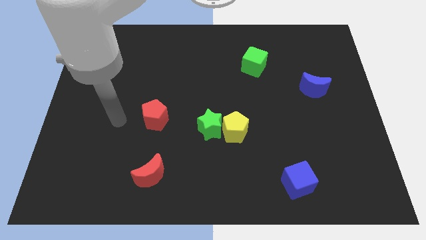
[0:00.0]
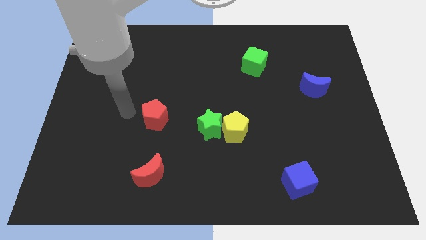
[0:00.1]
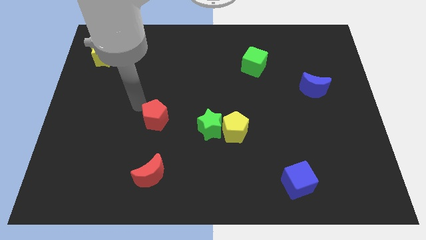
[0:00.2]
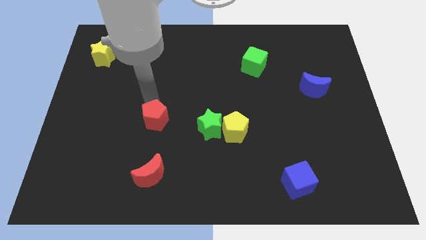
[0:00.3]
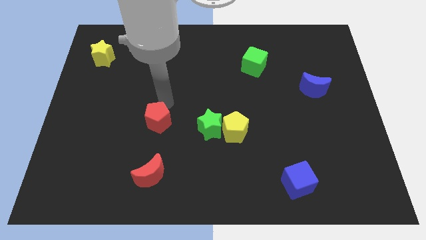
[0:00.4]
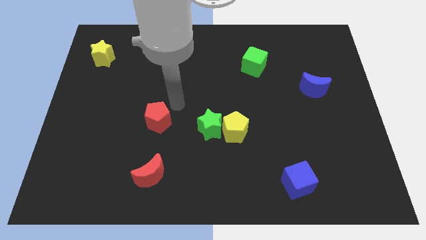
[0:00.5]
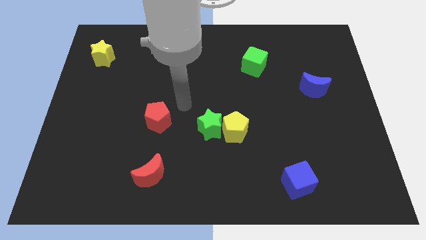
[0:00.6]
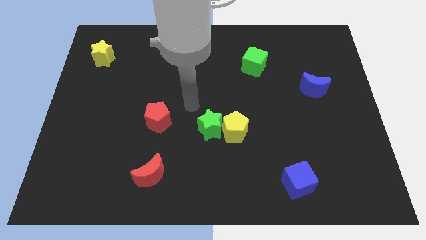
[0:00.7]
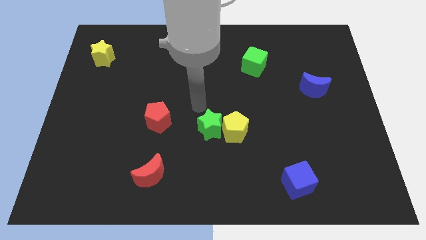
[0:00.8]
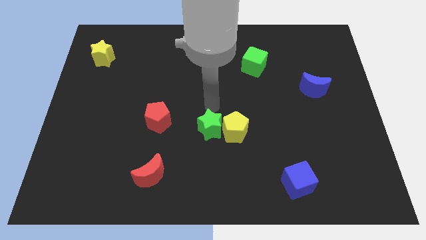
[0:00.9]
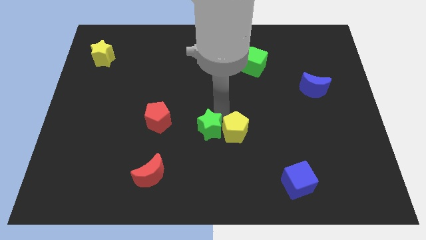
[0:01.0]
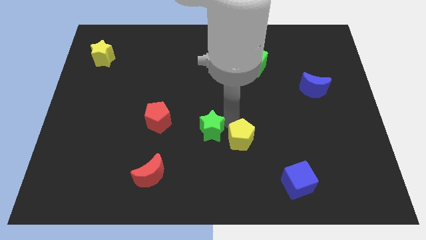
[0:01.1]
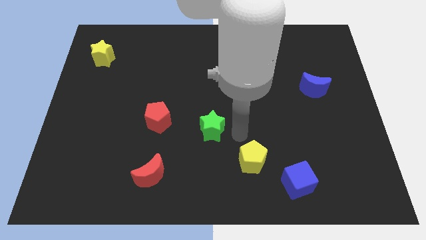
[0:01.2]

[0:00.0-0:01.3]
separate the green star from the yellow pentagon

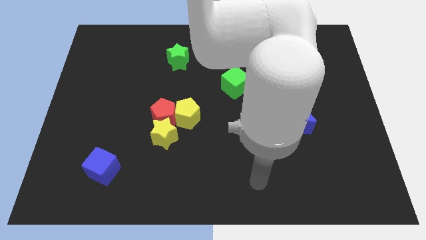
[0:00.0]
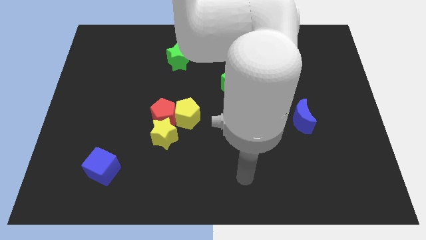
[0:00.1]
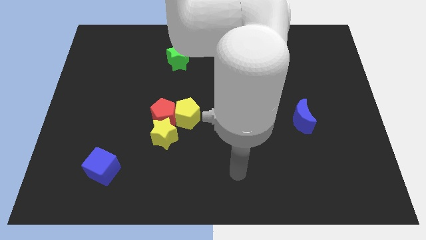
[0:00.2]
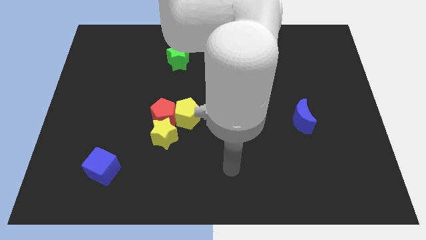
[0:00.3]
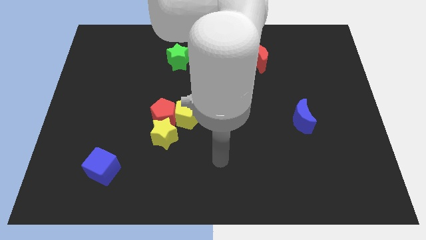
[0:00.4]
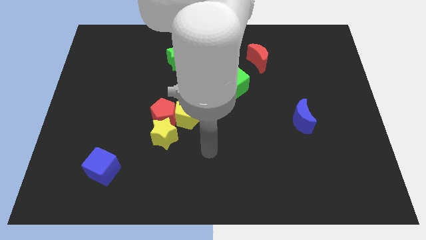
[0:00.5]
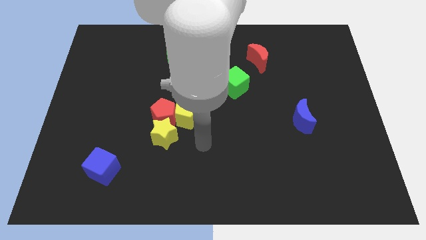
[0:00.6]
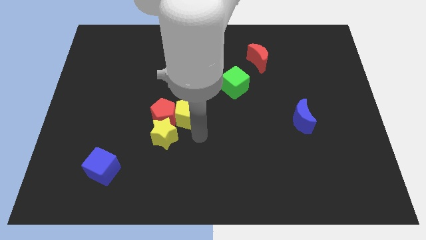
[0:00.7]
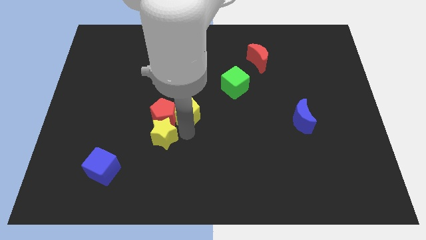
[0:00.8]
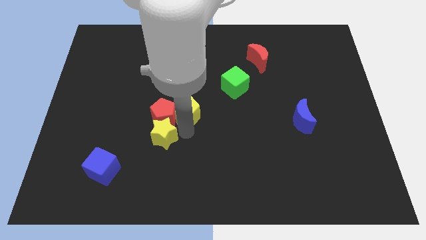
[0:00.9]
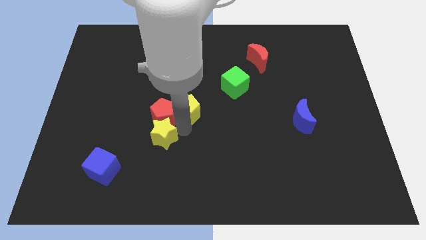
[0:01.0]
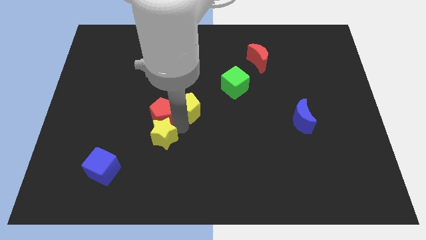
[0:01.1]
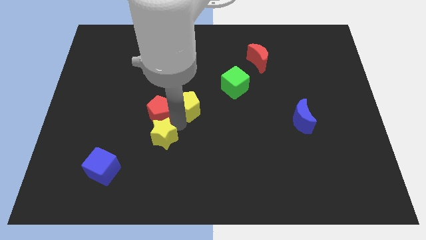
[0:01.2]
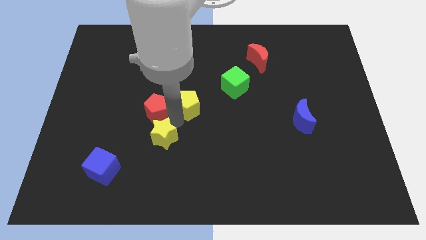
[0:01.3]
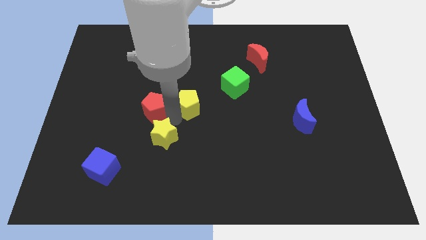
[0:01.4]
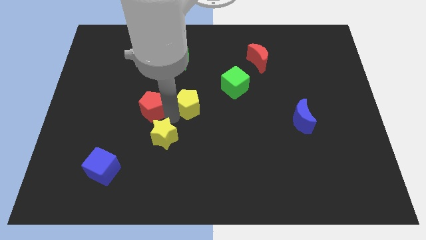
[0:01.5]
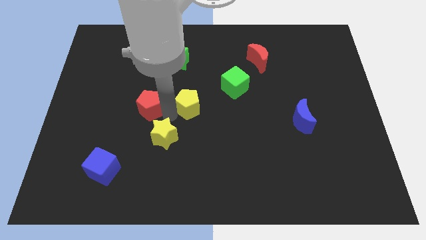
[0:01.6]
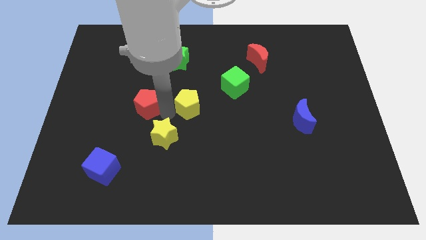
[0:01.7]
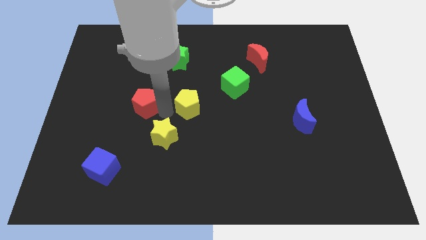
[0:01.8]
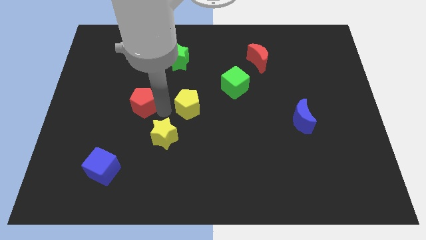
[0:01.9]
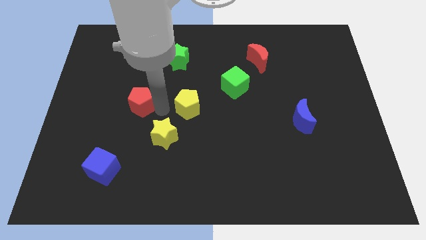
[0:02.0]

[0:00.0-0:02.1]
separate the red pentagon from the yellow star and yellow pentagon

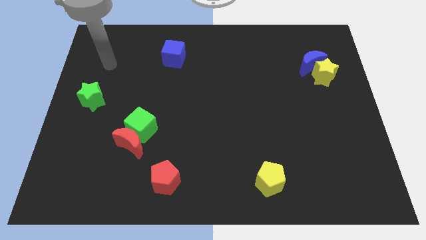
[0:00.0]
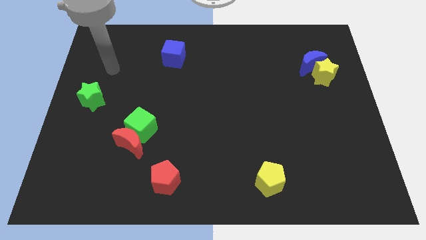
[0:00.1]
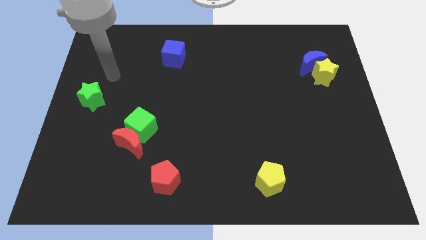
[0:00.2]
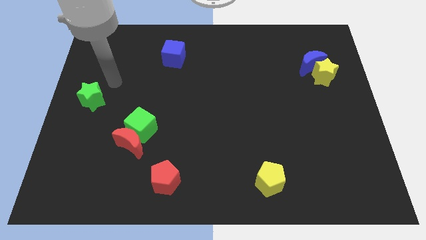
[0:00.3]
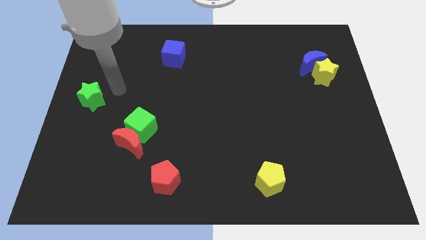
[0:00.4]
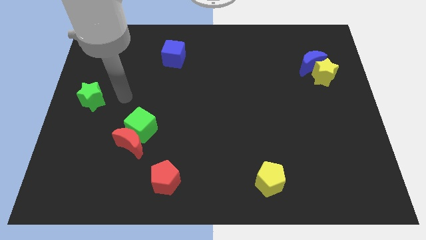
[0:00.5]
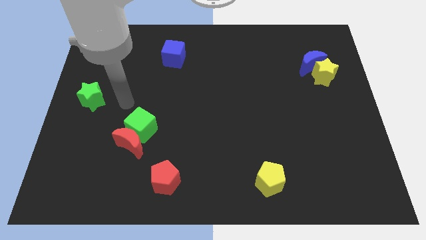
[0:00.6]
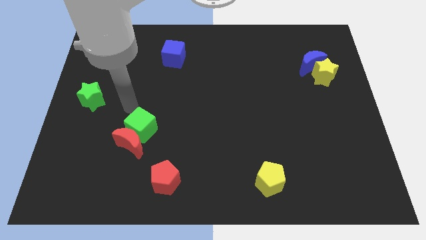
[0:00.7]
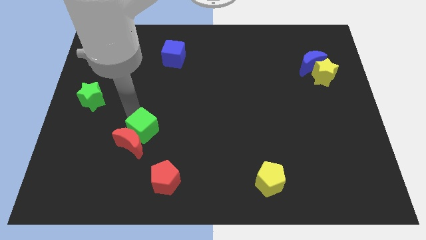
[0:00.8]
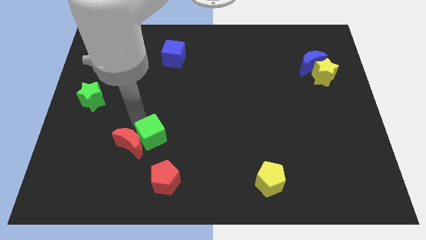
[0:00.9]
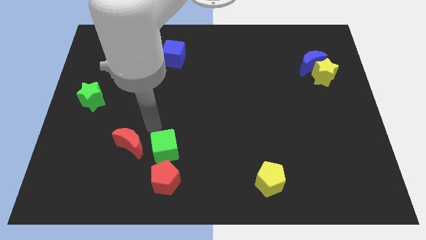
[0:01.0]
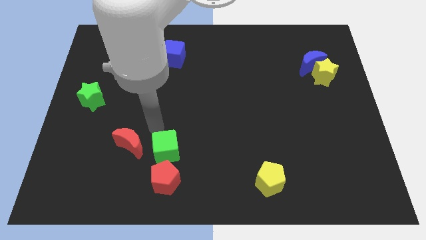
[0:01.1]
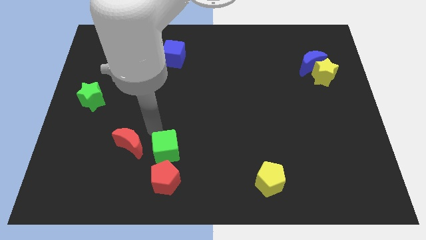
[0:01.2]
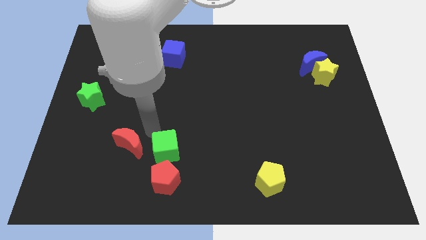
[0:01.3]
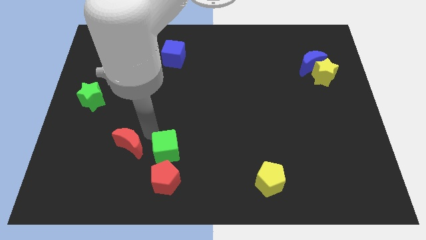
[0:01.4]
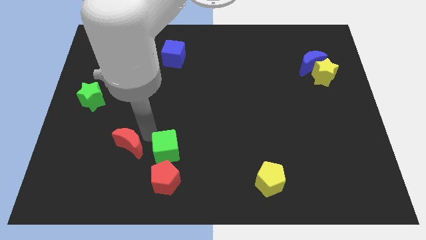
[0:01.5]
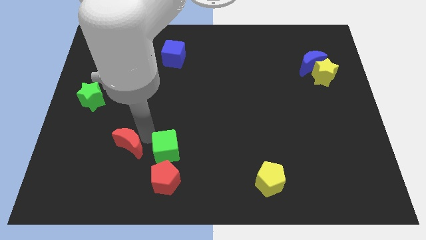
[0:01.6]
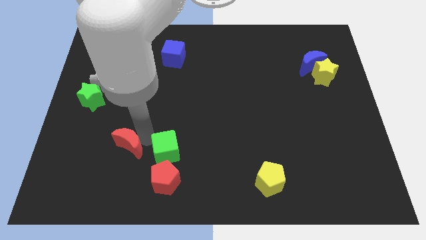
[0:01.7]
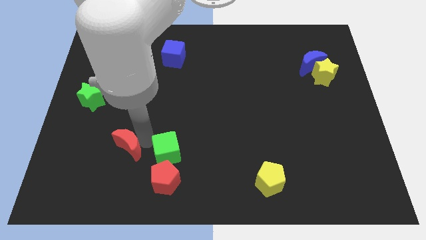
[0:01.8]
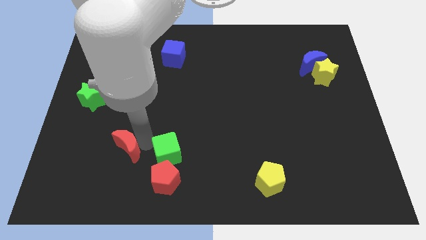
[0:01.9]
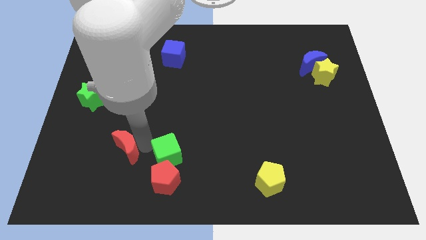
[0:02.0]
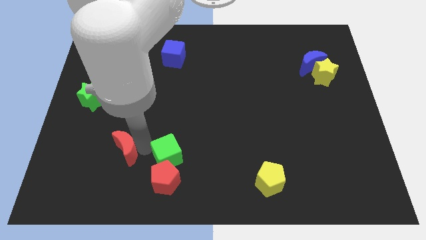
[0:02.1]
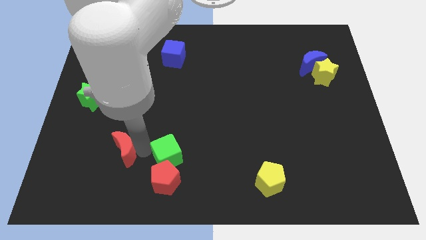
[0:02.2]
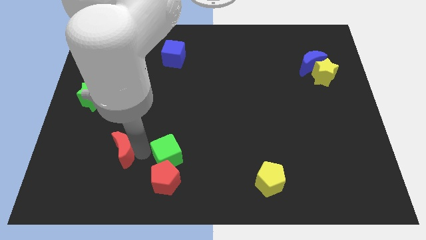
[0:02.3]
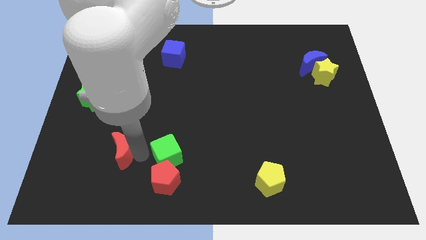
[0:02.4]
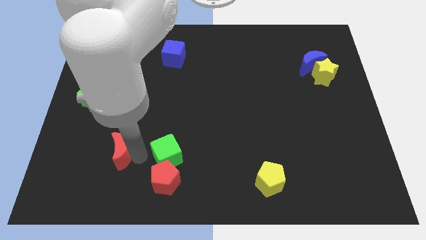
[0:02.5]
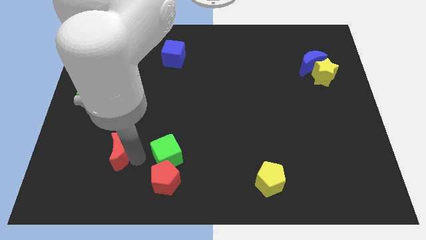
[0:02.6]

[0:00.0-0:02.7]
move the red moon away from the green cube

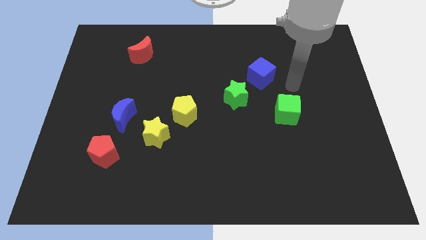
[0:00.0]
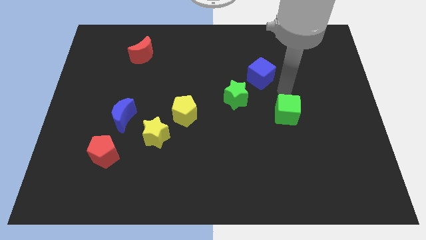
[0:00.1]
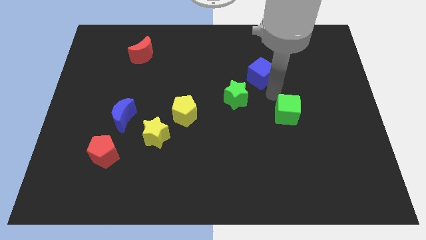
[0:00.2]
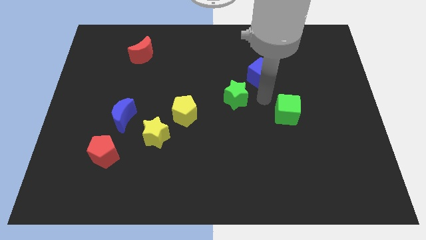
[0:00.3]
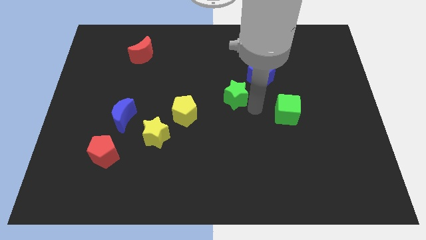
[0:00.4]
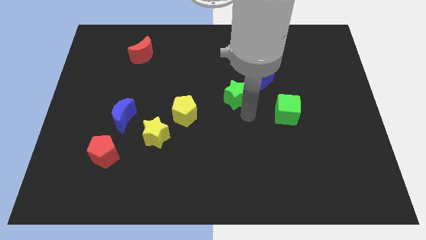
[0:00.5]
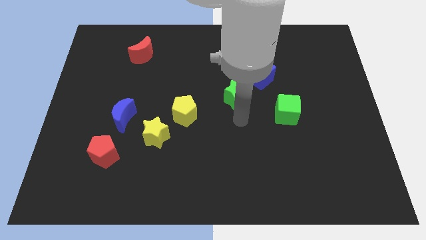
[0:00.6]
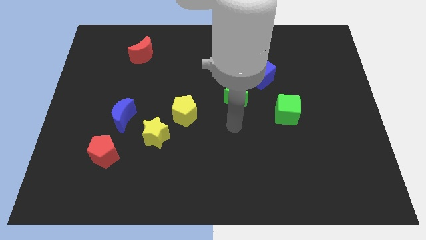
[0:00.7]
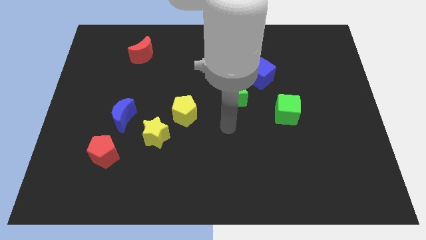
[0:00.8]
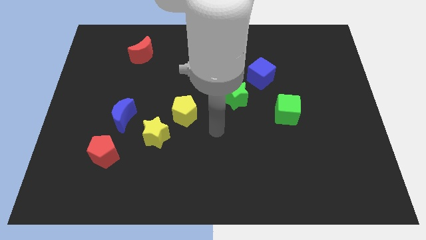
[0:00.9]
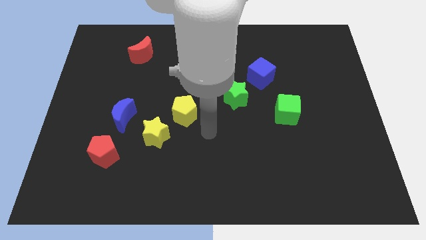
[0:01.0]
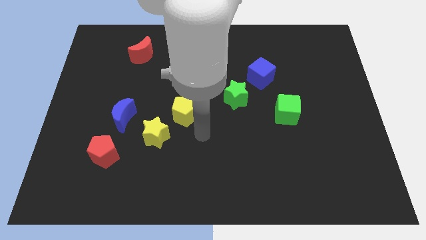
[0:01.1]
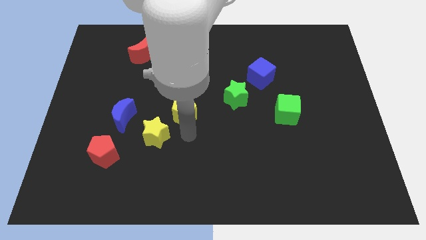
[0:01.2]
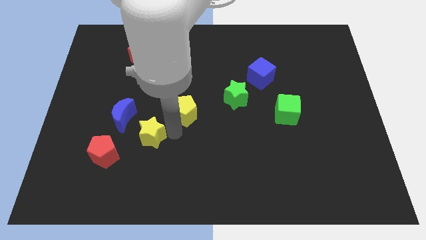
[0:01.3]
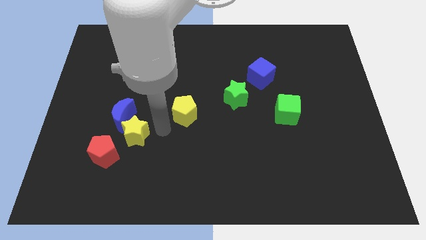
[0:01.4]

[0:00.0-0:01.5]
move the yellow pentagon away from the yellow star

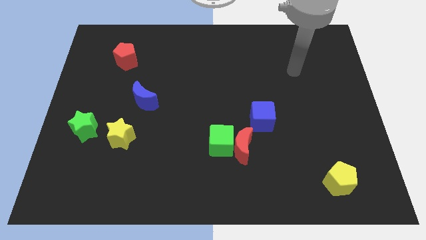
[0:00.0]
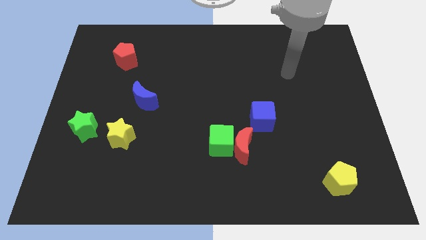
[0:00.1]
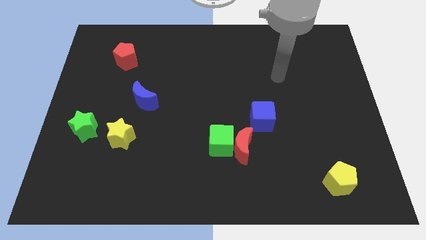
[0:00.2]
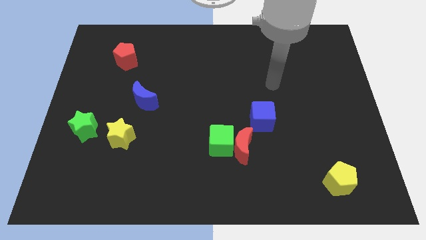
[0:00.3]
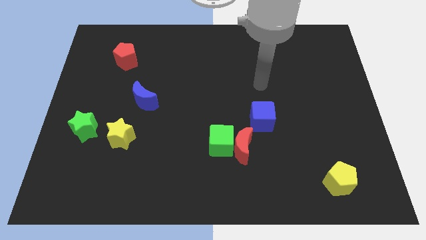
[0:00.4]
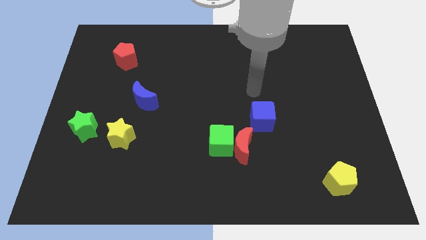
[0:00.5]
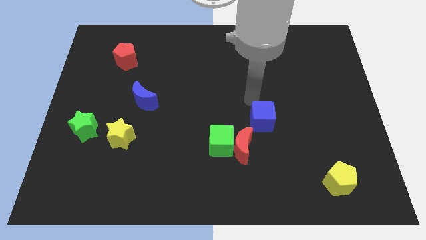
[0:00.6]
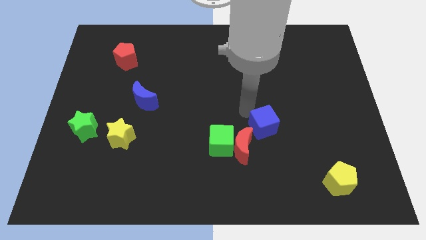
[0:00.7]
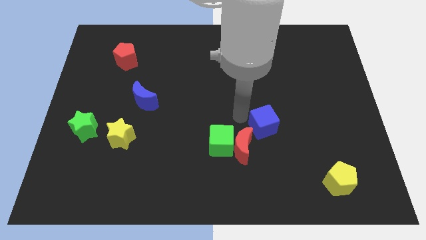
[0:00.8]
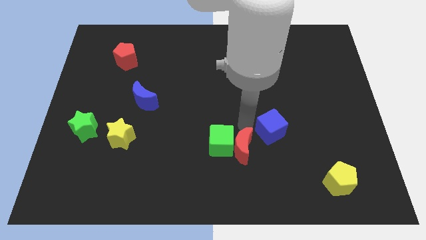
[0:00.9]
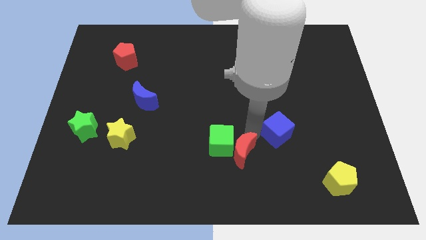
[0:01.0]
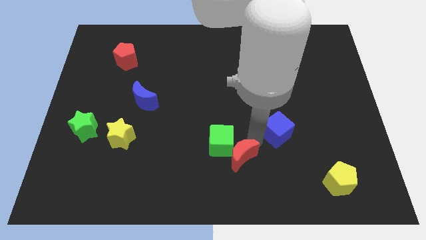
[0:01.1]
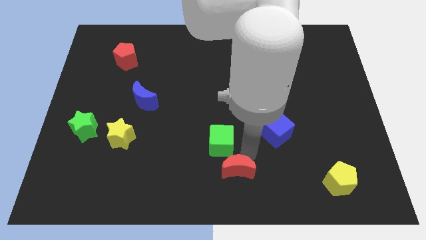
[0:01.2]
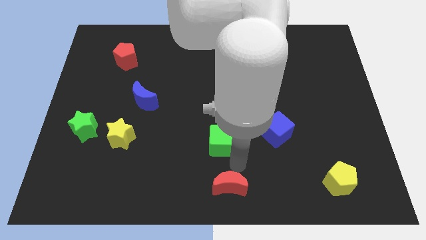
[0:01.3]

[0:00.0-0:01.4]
separate the green cube from the red moon

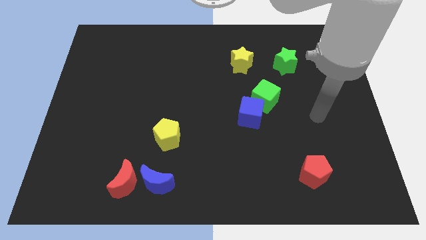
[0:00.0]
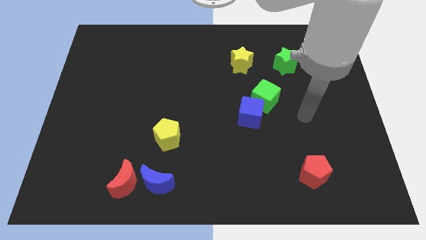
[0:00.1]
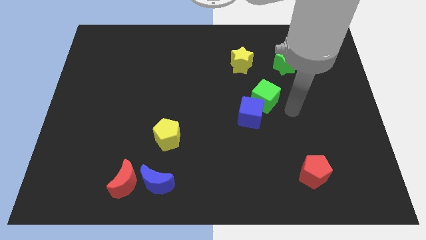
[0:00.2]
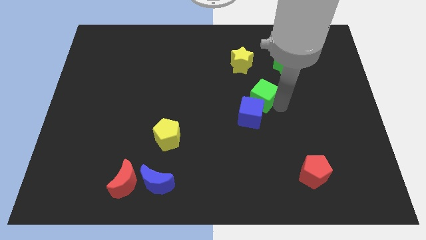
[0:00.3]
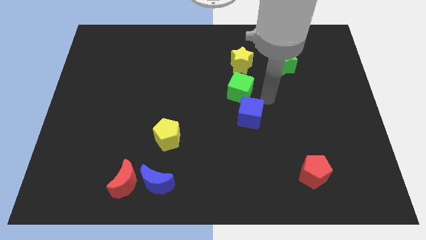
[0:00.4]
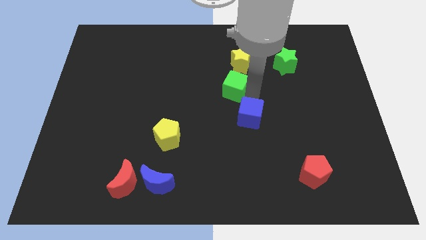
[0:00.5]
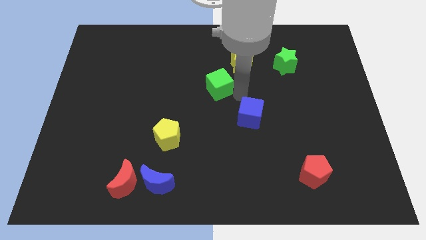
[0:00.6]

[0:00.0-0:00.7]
pull the blue cube apart from the green cube
